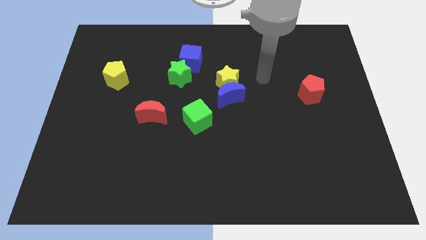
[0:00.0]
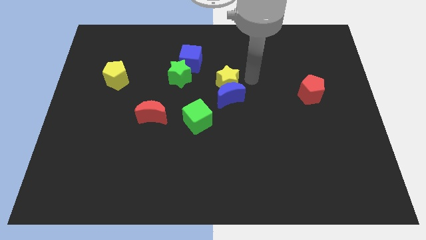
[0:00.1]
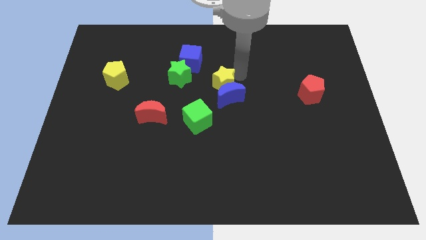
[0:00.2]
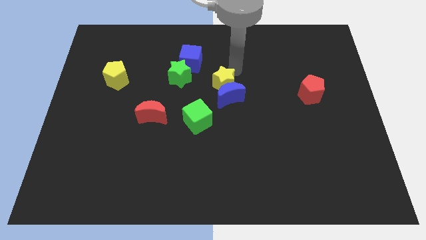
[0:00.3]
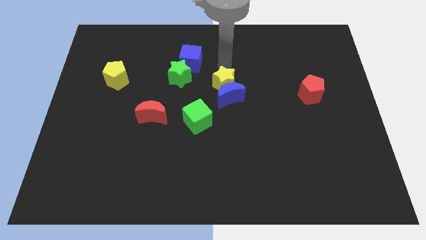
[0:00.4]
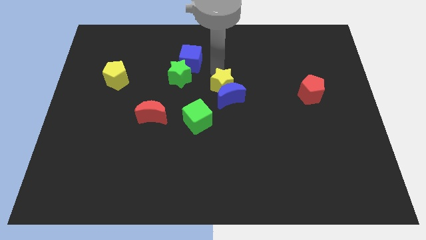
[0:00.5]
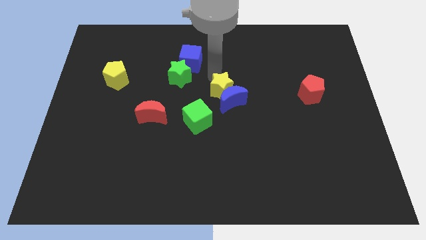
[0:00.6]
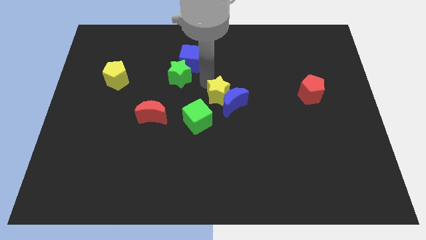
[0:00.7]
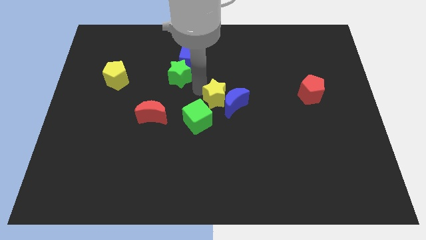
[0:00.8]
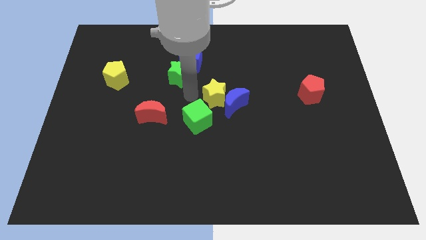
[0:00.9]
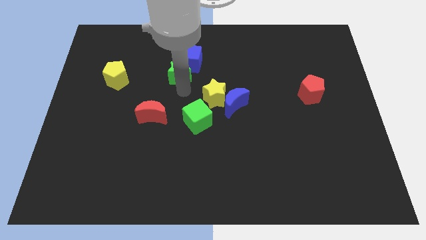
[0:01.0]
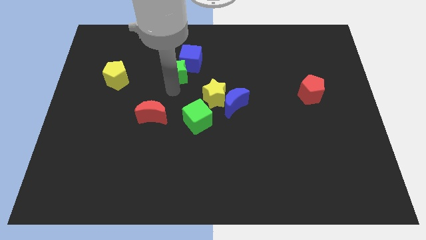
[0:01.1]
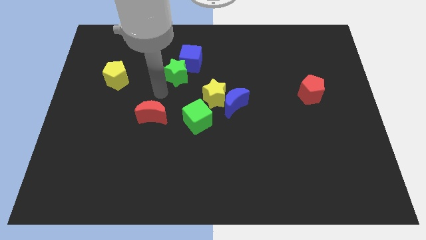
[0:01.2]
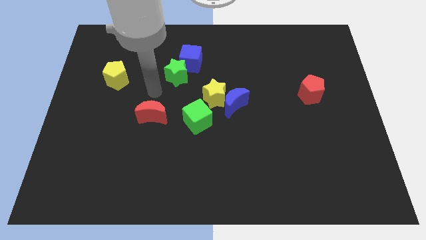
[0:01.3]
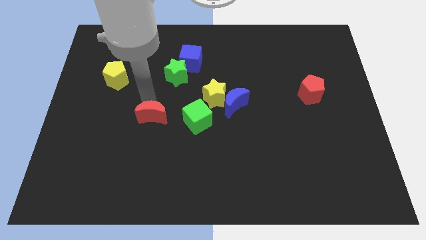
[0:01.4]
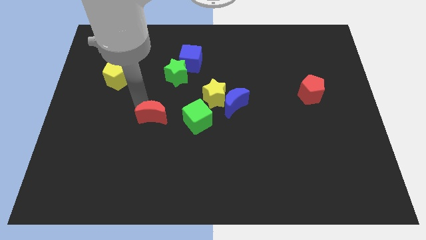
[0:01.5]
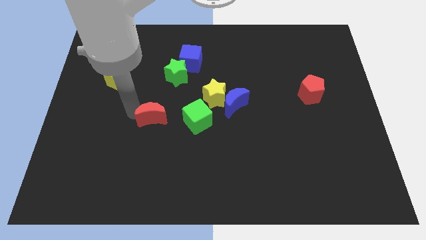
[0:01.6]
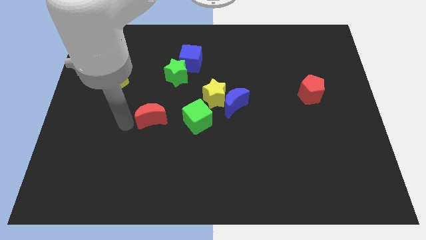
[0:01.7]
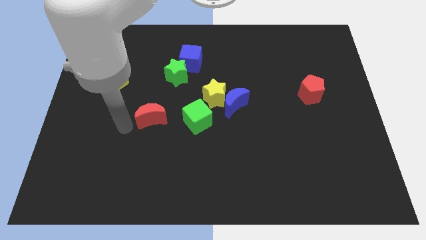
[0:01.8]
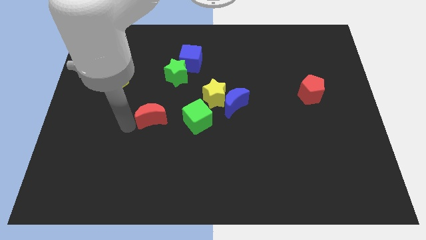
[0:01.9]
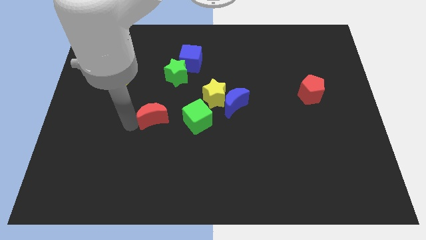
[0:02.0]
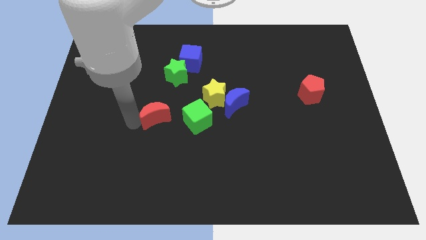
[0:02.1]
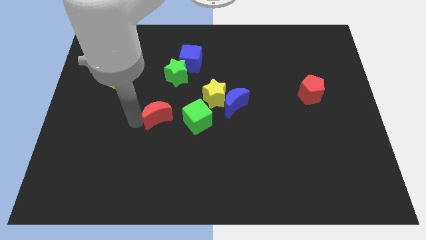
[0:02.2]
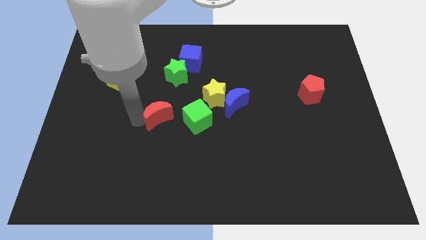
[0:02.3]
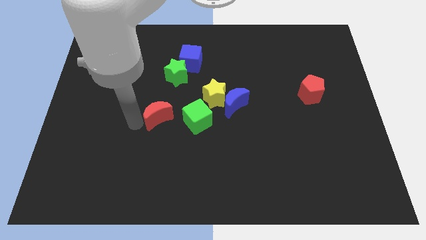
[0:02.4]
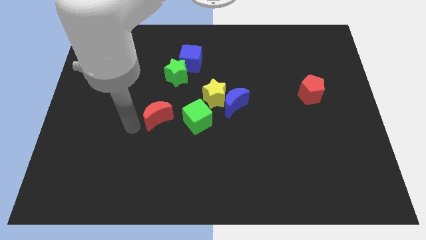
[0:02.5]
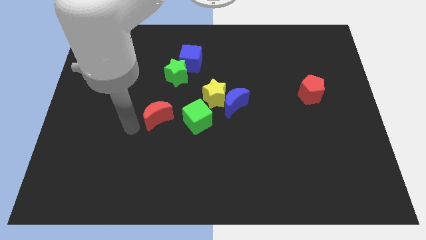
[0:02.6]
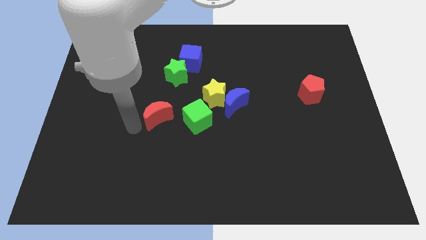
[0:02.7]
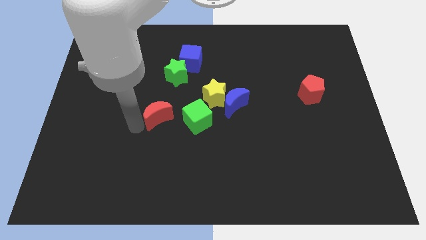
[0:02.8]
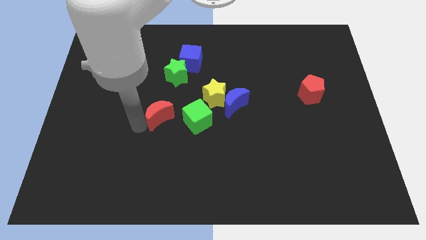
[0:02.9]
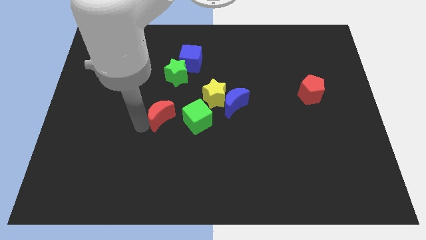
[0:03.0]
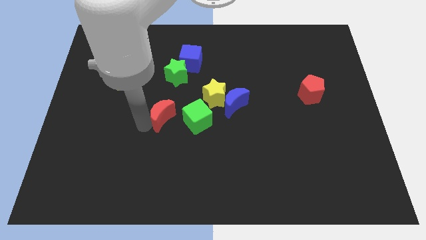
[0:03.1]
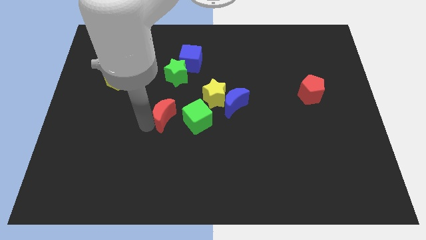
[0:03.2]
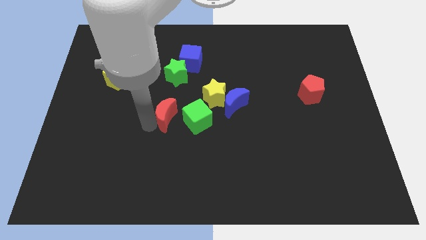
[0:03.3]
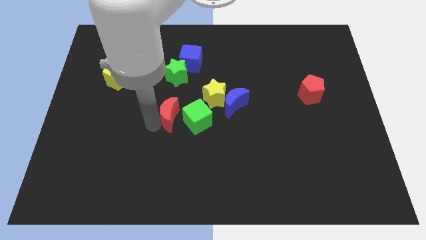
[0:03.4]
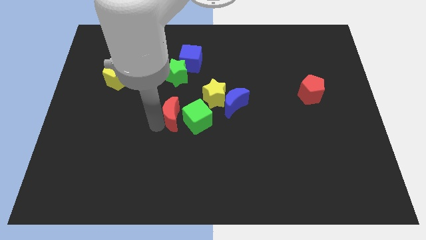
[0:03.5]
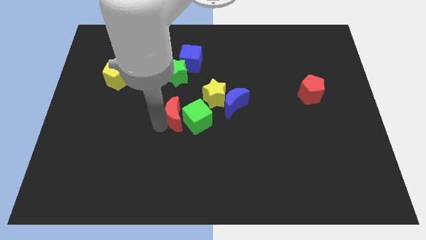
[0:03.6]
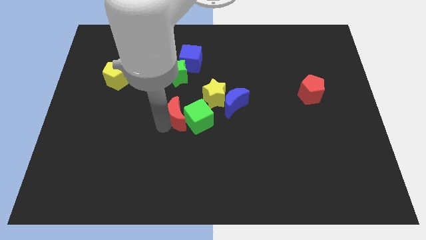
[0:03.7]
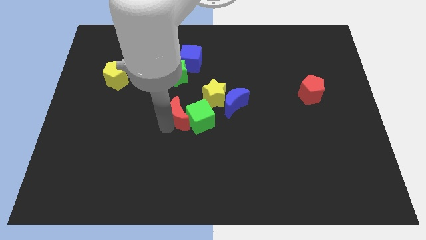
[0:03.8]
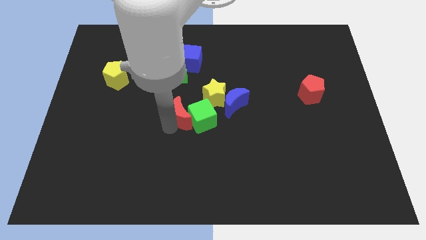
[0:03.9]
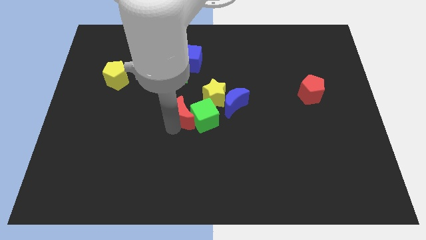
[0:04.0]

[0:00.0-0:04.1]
slightly slide the red moon right

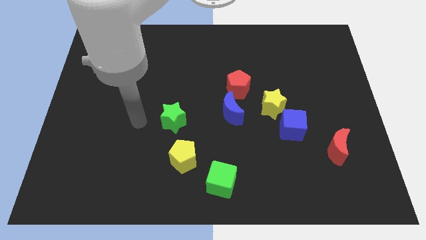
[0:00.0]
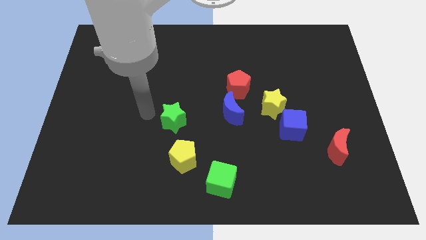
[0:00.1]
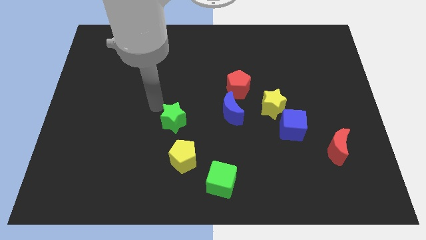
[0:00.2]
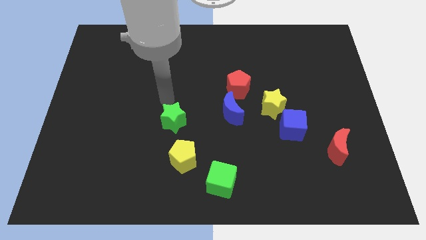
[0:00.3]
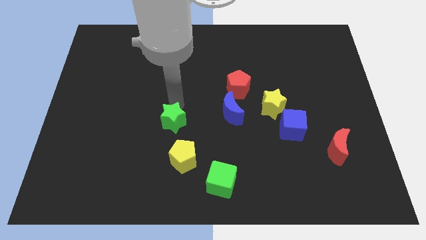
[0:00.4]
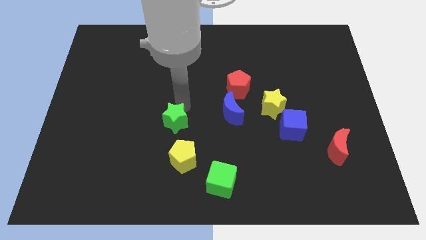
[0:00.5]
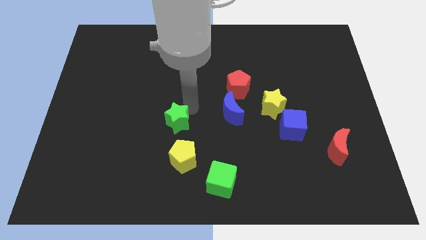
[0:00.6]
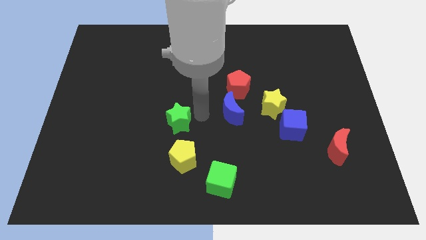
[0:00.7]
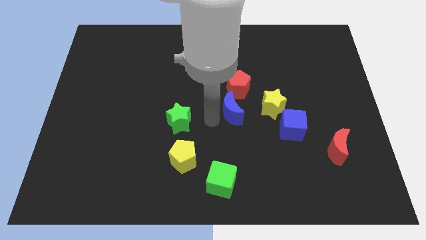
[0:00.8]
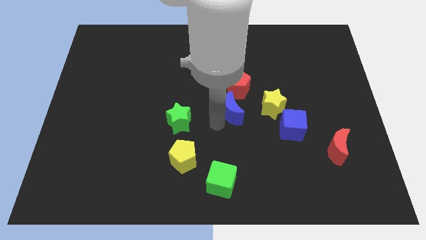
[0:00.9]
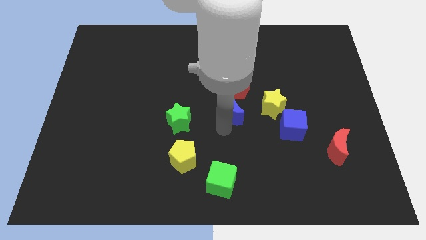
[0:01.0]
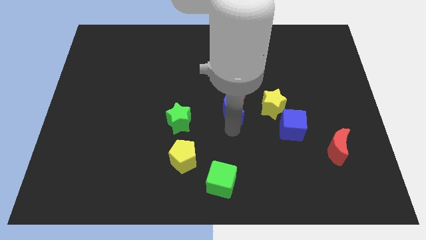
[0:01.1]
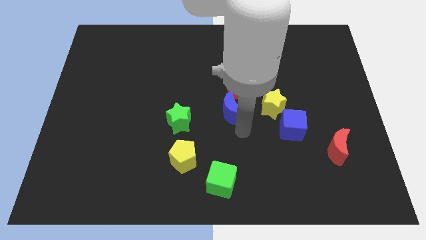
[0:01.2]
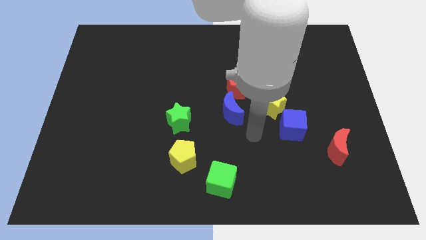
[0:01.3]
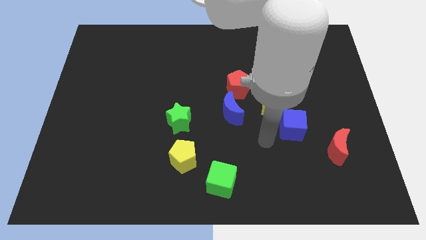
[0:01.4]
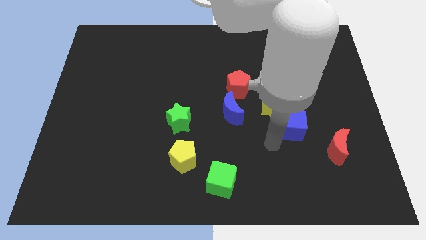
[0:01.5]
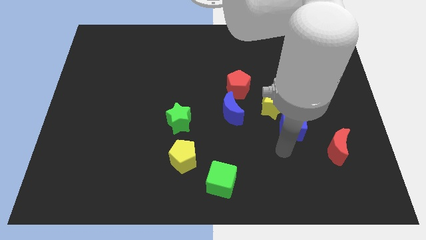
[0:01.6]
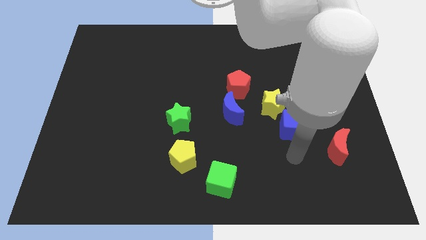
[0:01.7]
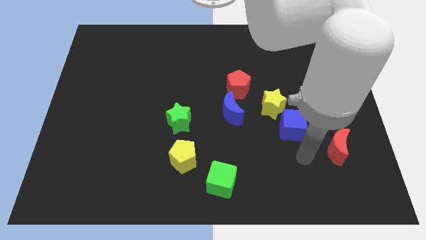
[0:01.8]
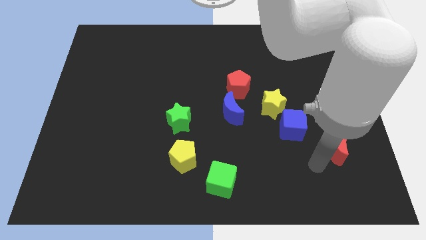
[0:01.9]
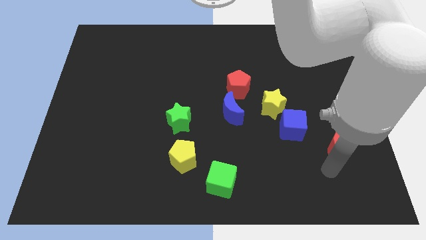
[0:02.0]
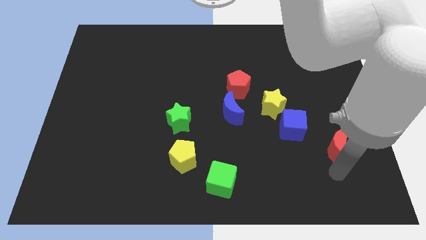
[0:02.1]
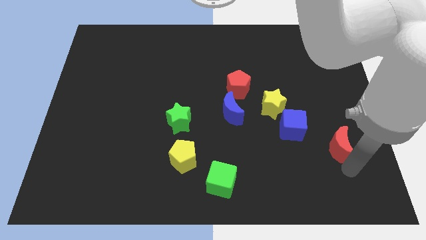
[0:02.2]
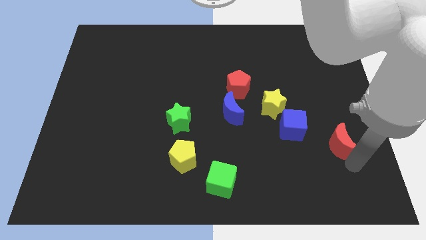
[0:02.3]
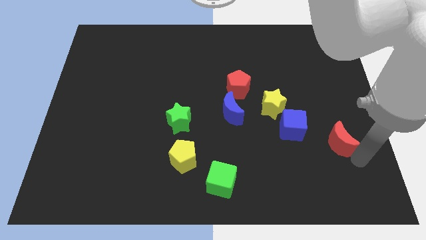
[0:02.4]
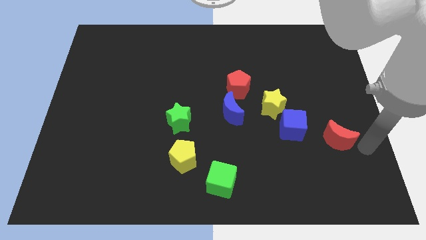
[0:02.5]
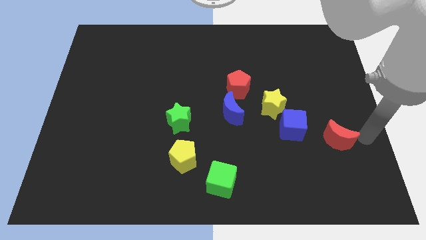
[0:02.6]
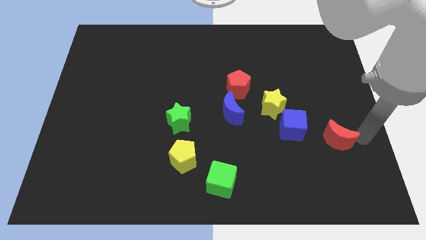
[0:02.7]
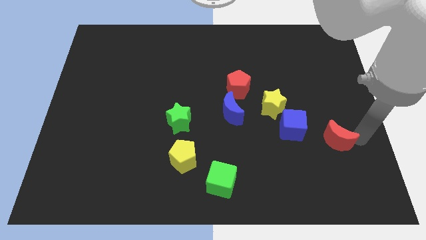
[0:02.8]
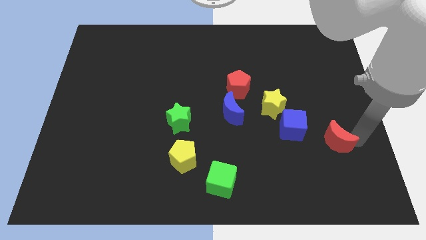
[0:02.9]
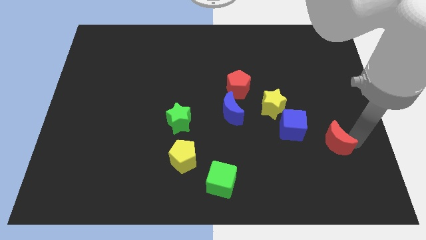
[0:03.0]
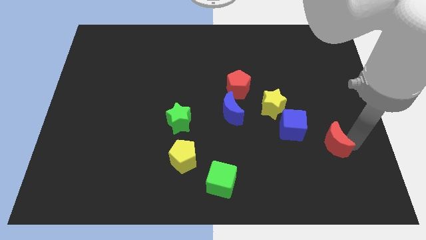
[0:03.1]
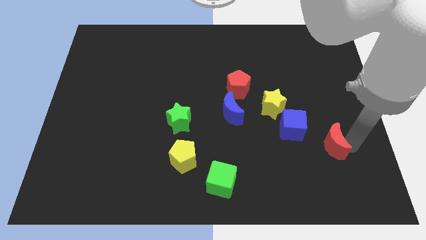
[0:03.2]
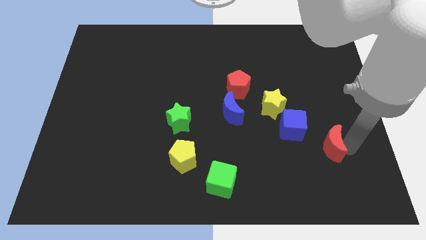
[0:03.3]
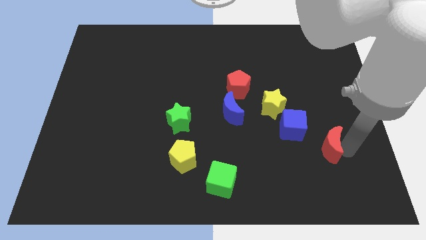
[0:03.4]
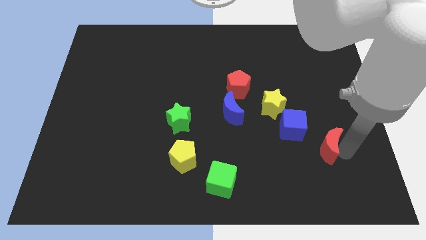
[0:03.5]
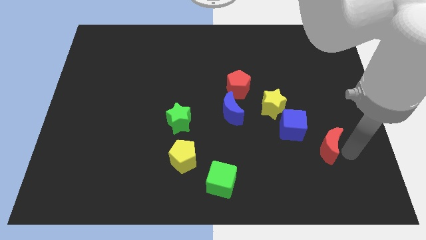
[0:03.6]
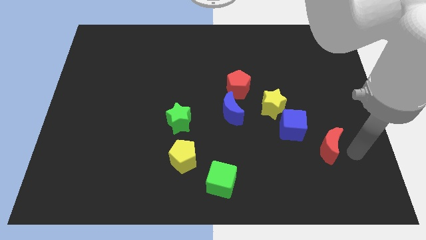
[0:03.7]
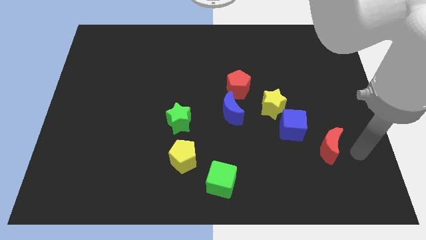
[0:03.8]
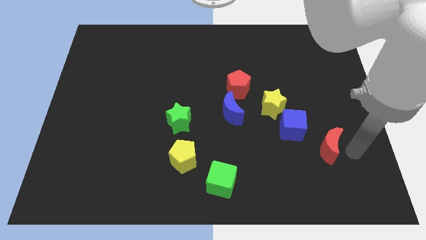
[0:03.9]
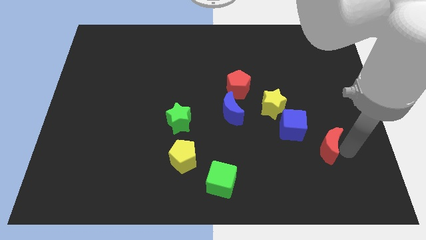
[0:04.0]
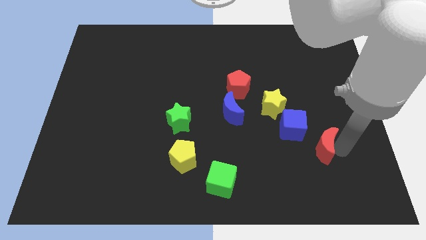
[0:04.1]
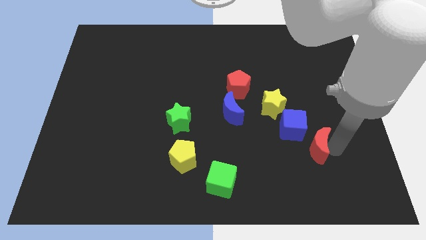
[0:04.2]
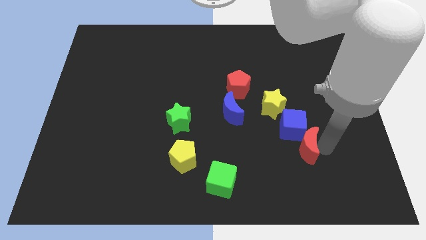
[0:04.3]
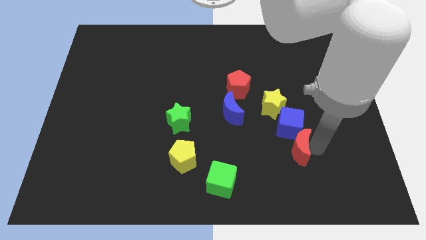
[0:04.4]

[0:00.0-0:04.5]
push the red moon a bit to the left
